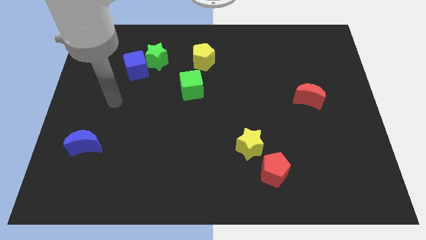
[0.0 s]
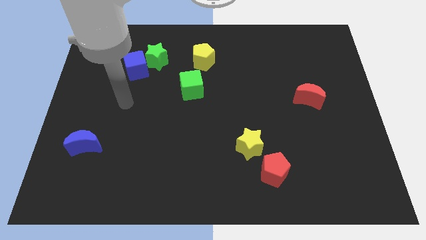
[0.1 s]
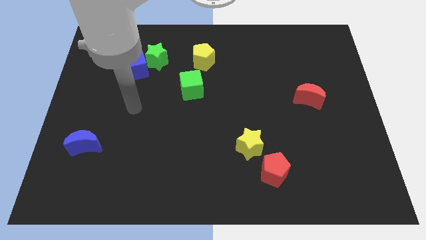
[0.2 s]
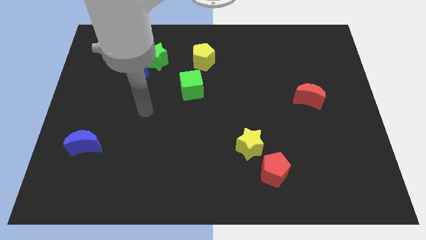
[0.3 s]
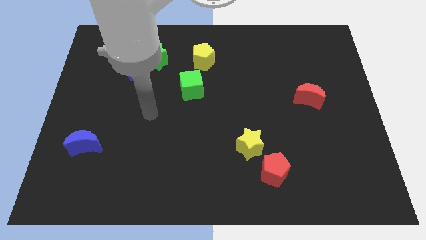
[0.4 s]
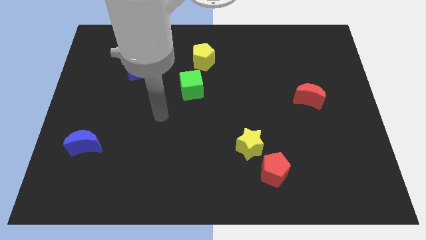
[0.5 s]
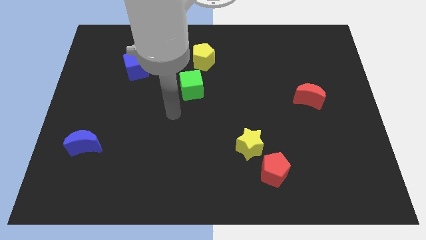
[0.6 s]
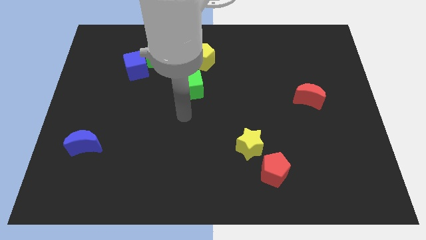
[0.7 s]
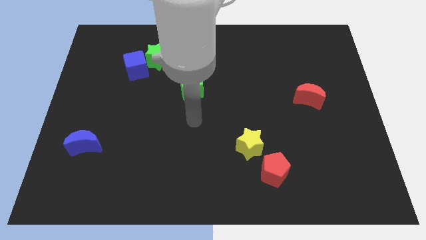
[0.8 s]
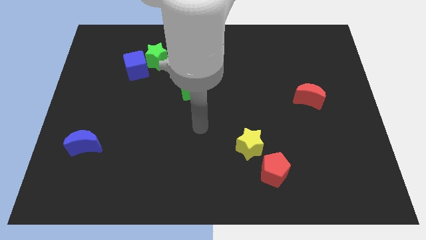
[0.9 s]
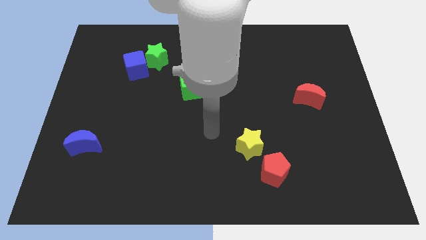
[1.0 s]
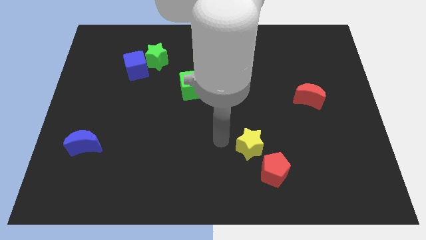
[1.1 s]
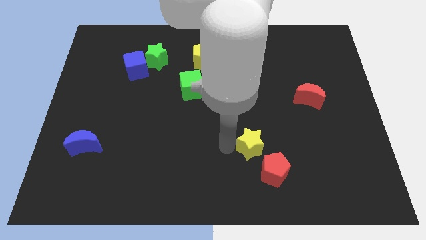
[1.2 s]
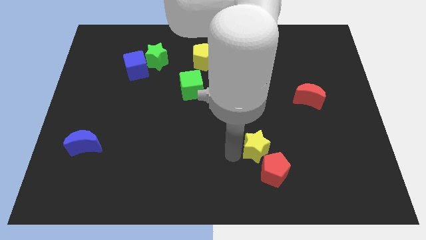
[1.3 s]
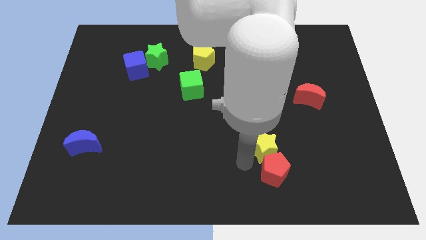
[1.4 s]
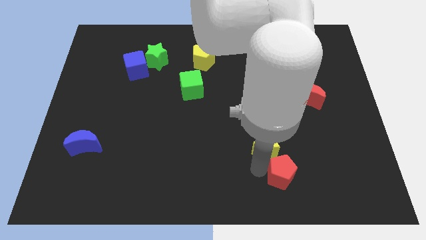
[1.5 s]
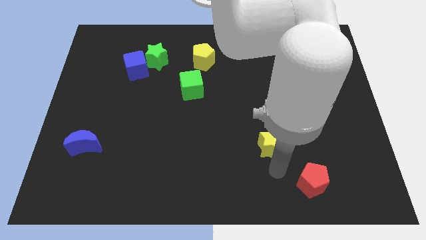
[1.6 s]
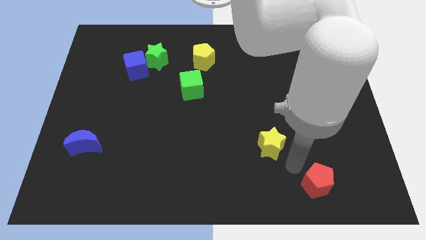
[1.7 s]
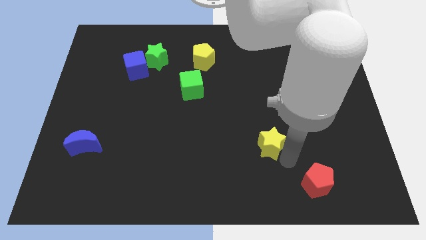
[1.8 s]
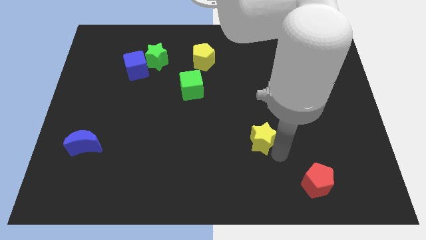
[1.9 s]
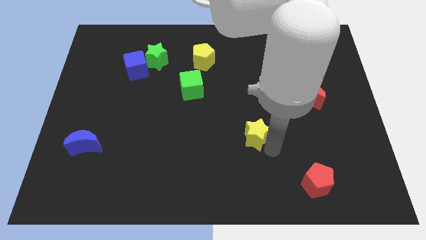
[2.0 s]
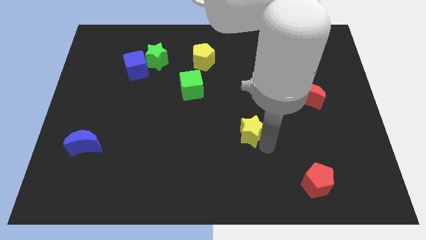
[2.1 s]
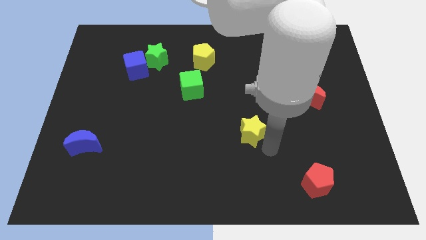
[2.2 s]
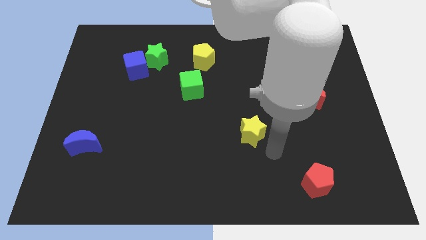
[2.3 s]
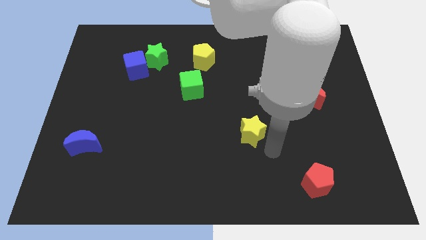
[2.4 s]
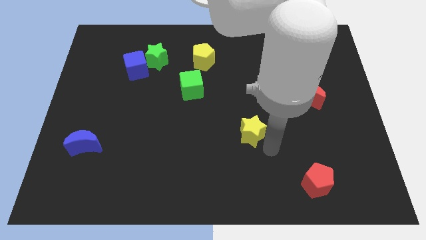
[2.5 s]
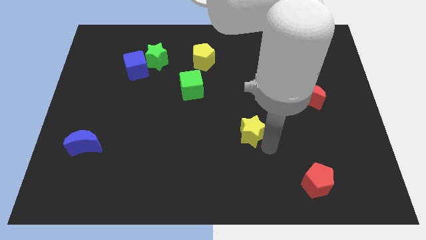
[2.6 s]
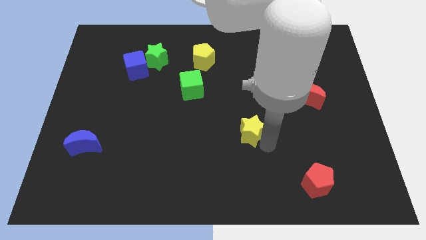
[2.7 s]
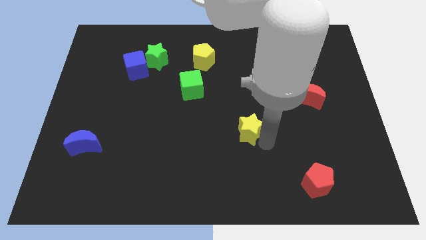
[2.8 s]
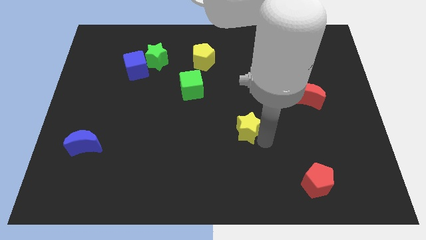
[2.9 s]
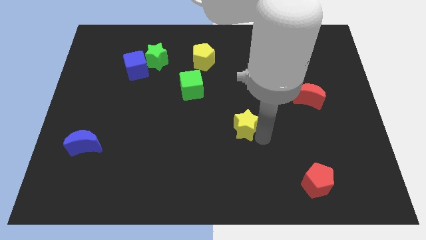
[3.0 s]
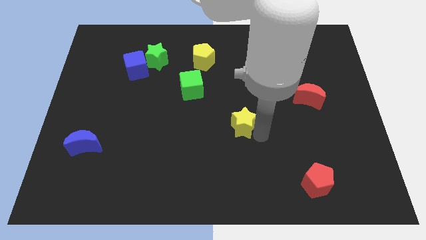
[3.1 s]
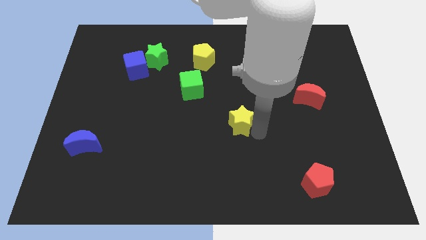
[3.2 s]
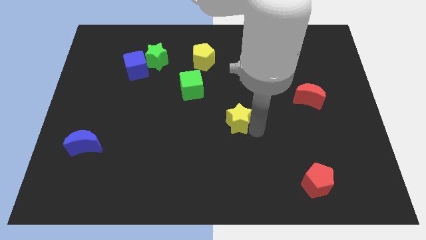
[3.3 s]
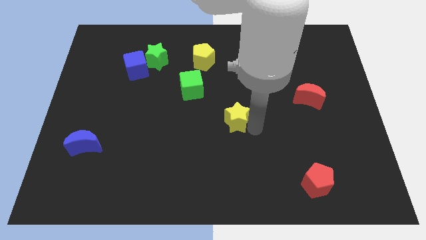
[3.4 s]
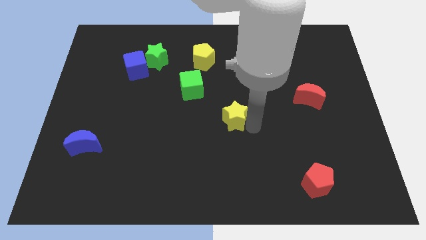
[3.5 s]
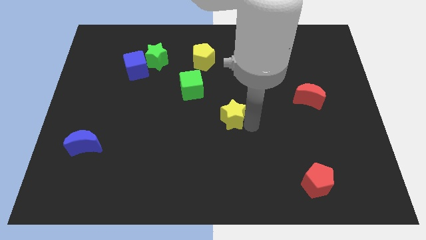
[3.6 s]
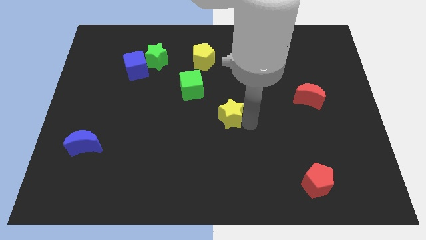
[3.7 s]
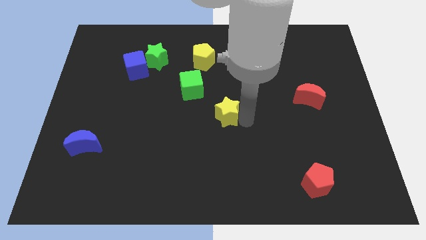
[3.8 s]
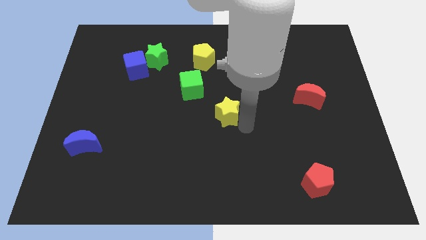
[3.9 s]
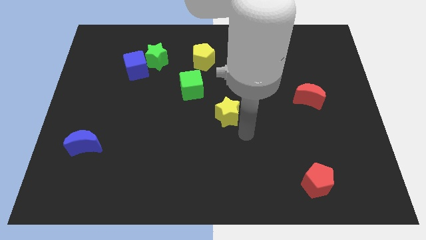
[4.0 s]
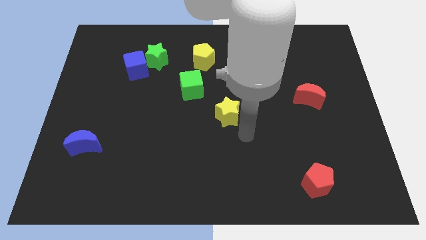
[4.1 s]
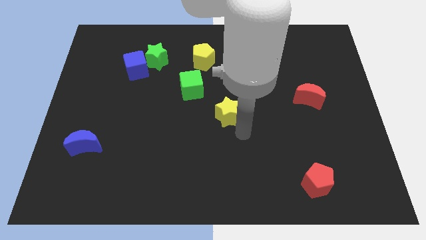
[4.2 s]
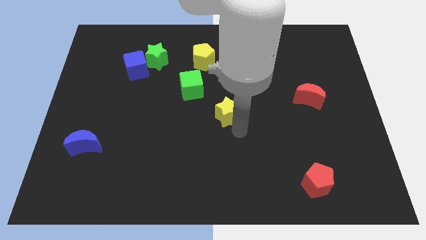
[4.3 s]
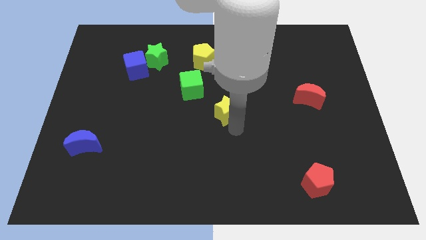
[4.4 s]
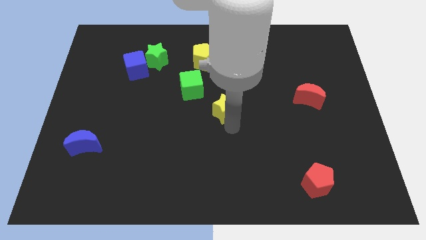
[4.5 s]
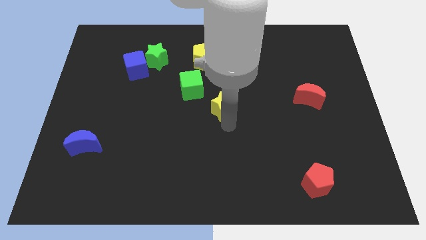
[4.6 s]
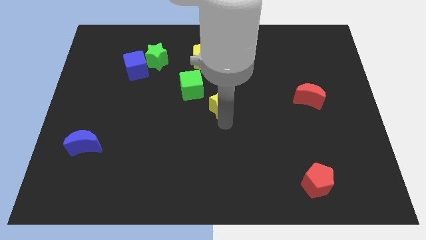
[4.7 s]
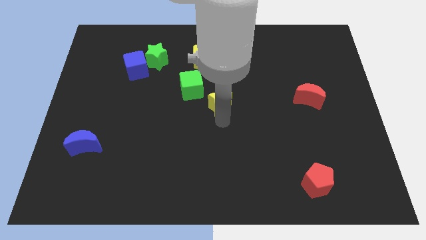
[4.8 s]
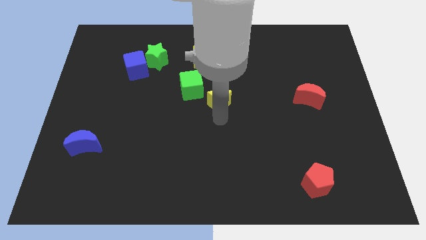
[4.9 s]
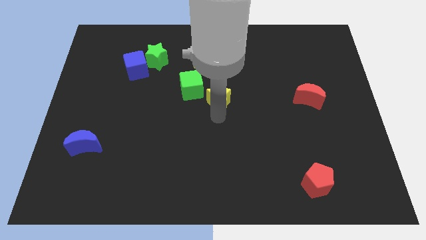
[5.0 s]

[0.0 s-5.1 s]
push the yellow star to the bottom of the yellow pentagon

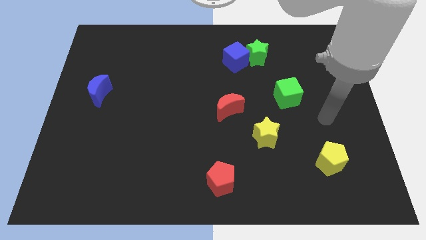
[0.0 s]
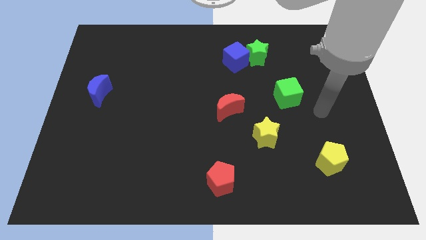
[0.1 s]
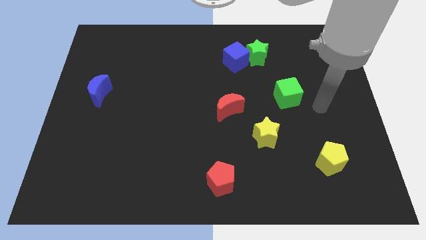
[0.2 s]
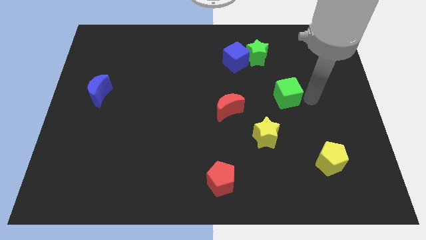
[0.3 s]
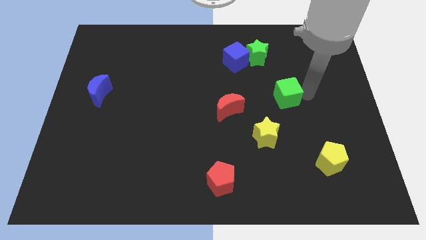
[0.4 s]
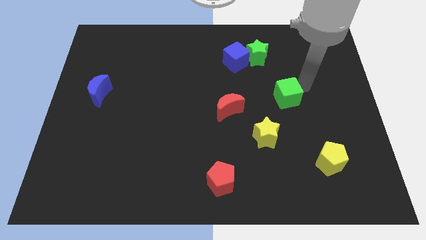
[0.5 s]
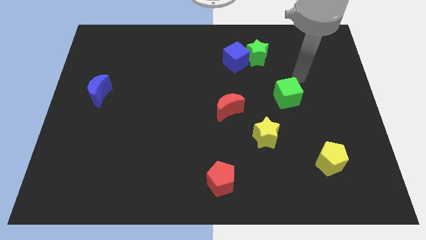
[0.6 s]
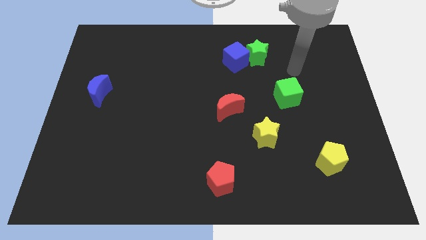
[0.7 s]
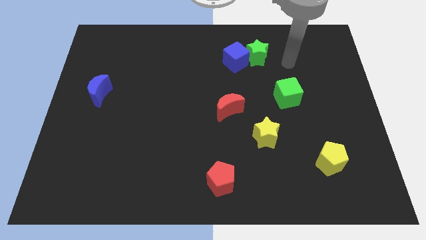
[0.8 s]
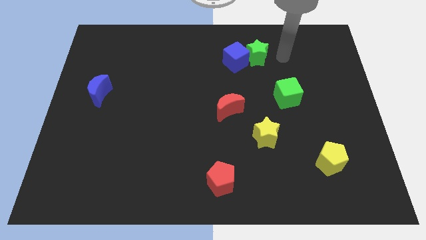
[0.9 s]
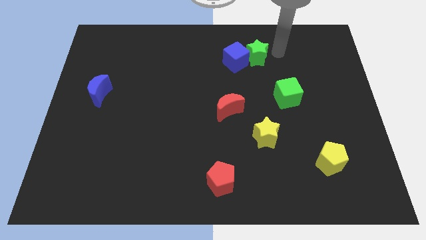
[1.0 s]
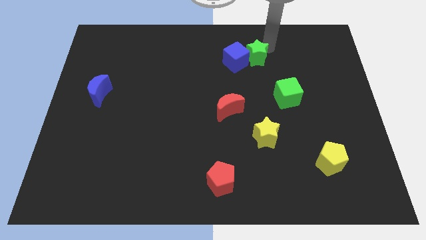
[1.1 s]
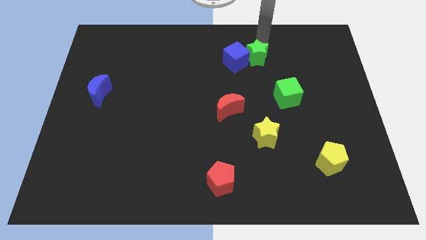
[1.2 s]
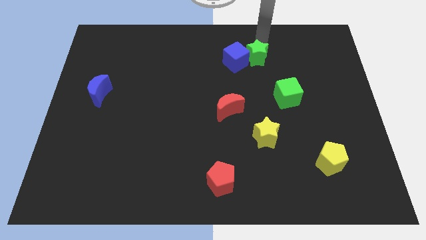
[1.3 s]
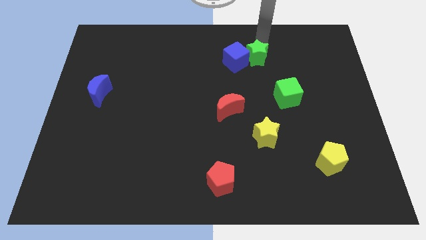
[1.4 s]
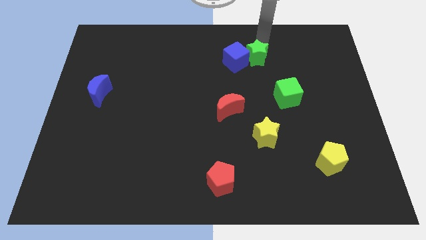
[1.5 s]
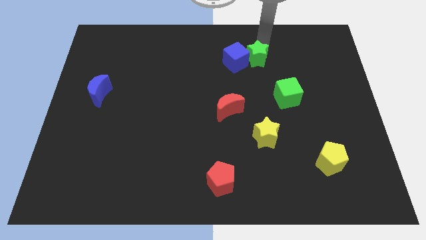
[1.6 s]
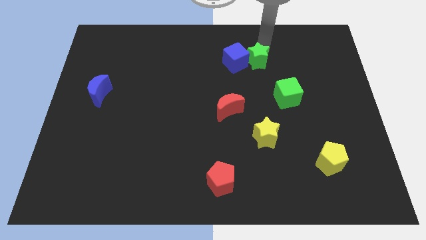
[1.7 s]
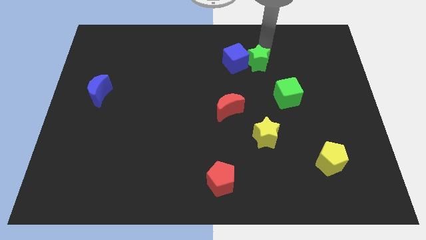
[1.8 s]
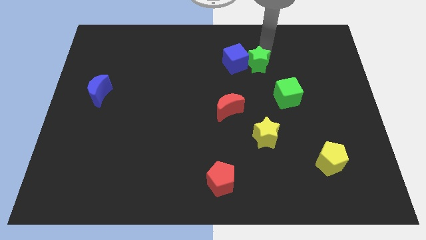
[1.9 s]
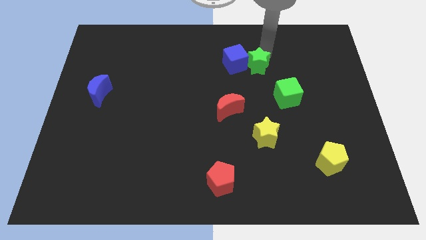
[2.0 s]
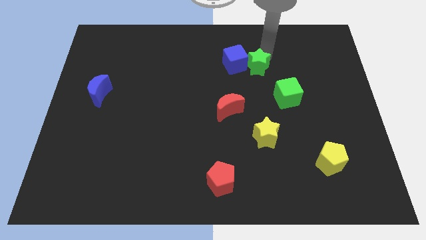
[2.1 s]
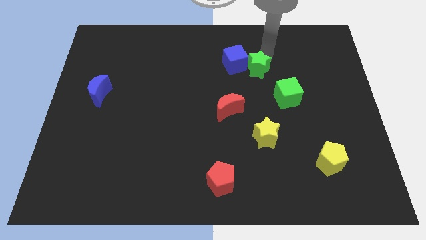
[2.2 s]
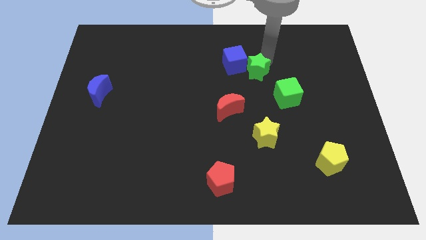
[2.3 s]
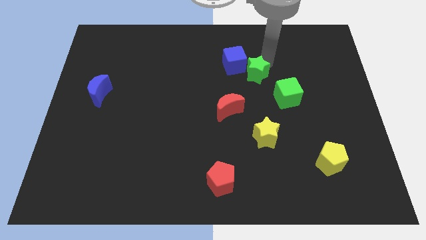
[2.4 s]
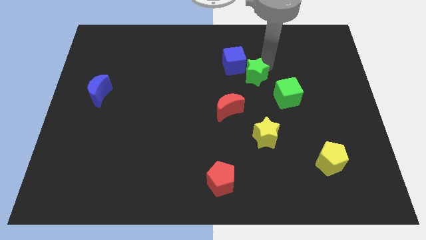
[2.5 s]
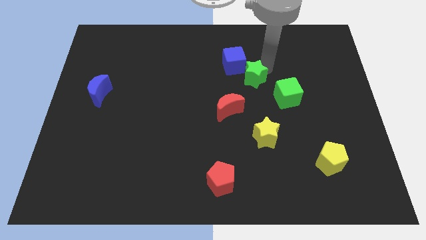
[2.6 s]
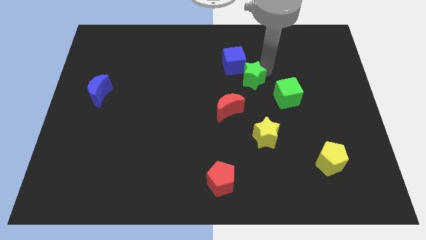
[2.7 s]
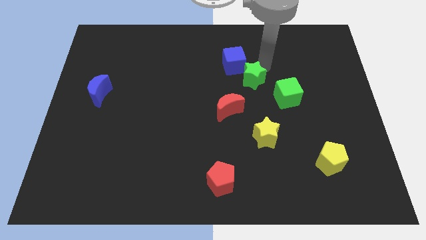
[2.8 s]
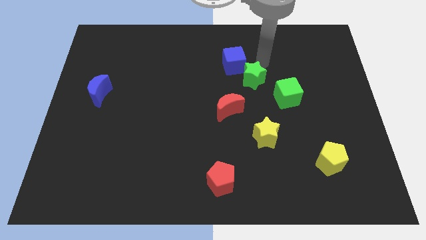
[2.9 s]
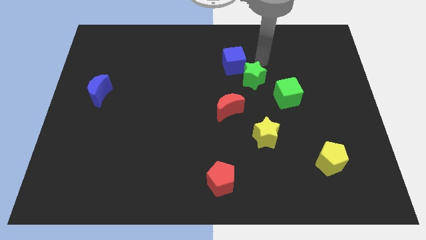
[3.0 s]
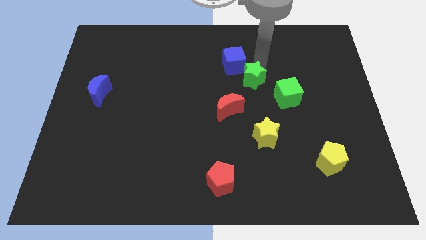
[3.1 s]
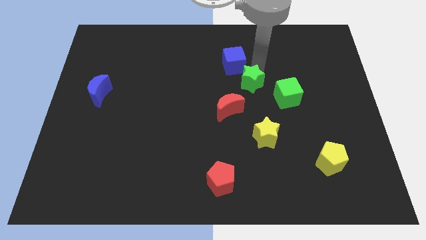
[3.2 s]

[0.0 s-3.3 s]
put the green star left of the green cube
